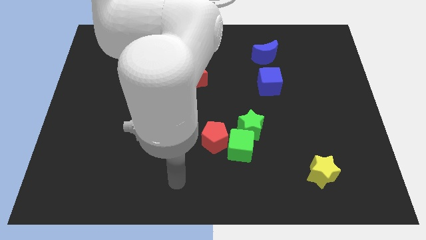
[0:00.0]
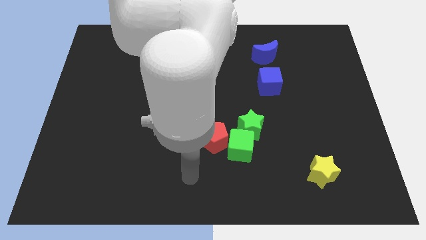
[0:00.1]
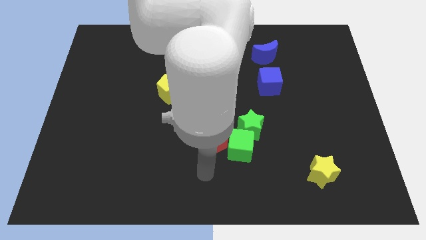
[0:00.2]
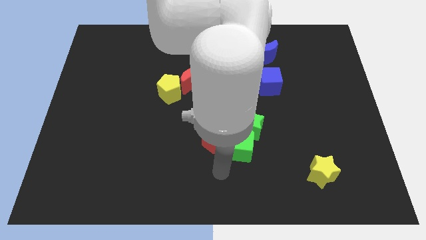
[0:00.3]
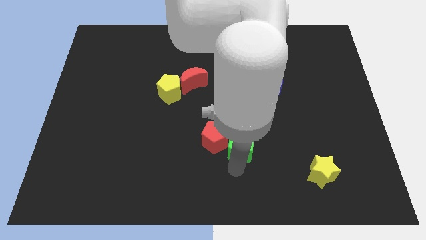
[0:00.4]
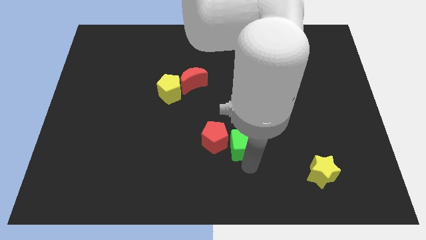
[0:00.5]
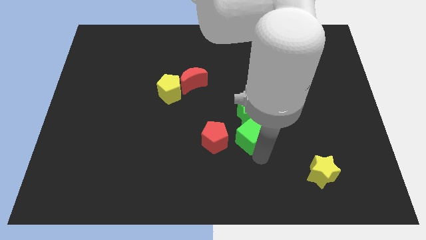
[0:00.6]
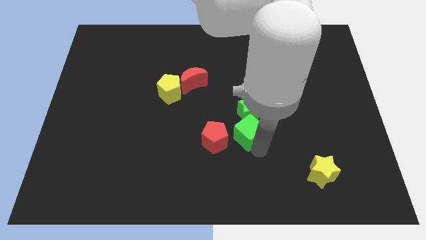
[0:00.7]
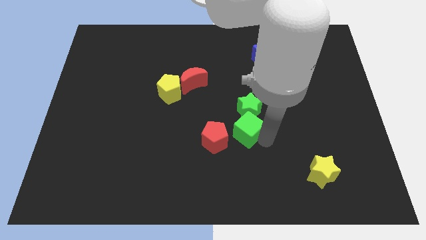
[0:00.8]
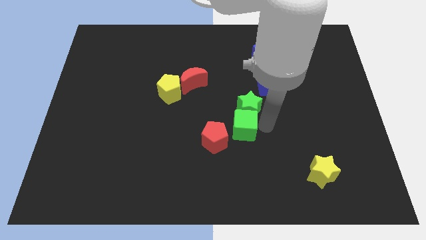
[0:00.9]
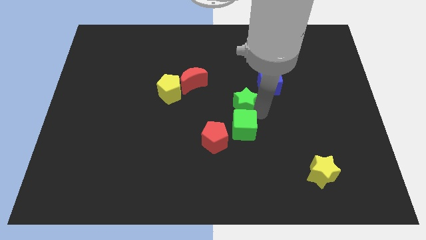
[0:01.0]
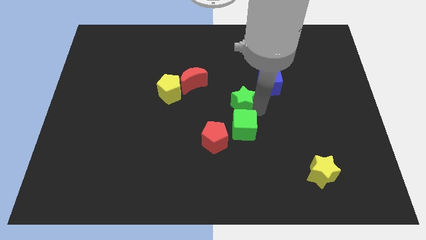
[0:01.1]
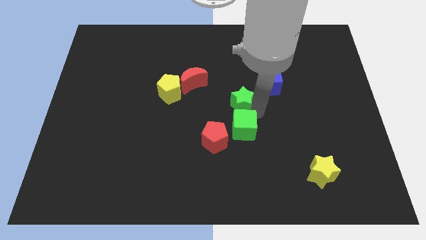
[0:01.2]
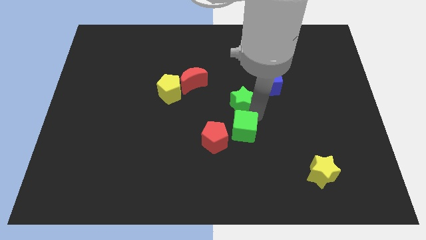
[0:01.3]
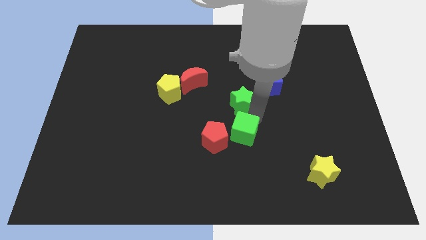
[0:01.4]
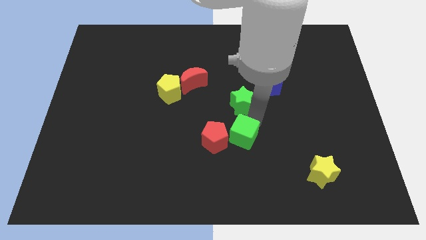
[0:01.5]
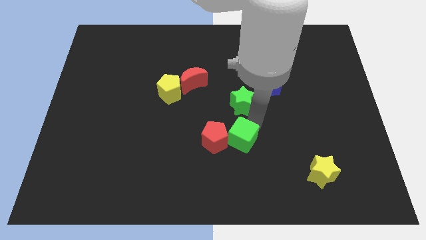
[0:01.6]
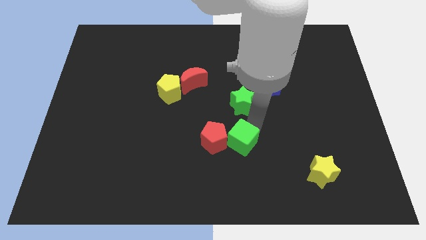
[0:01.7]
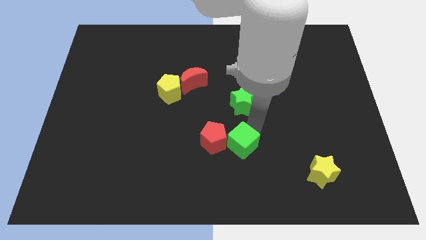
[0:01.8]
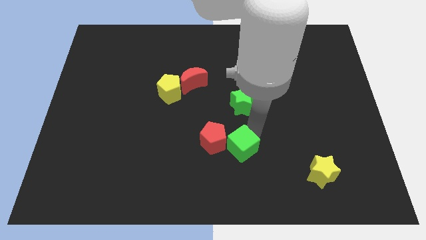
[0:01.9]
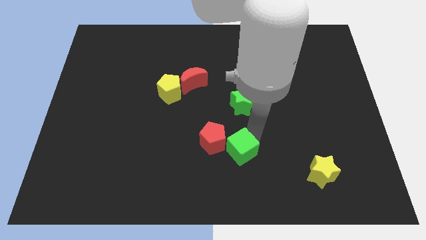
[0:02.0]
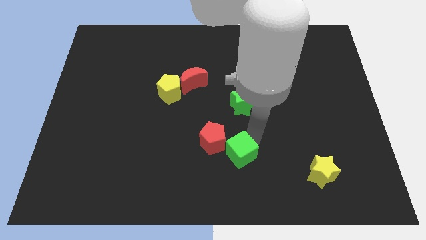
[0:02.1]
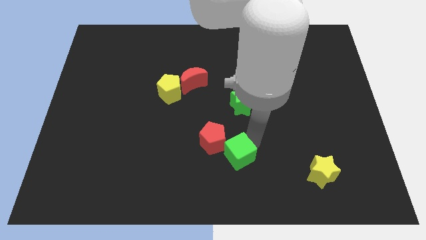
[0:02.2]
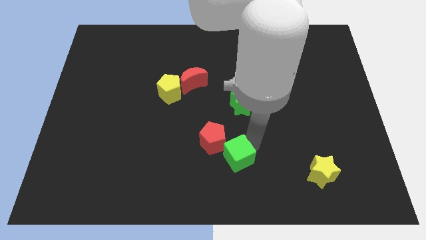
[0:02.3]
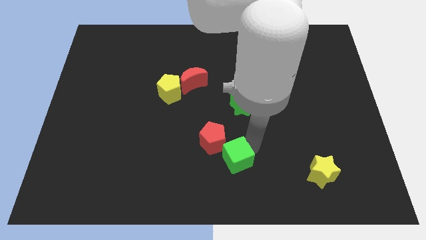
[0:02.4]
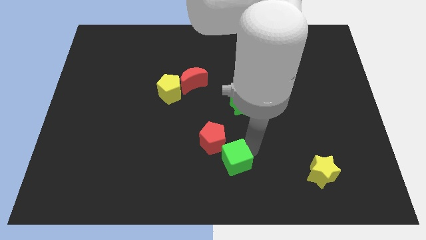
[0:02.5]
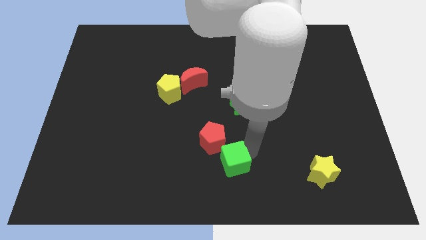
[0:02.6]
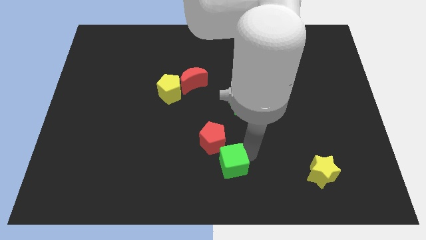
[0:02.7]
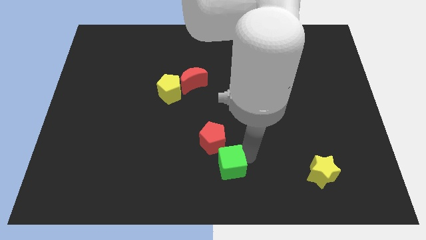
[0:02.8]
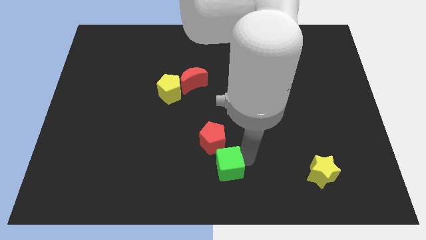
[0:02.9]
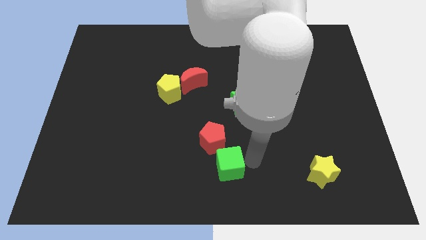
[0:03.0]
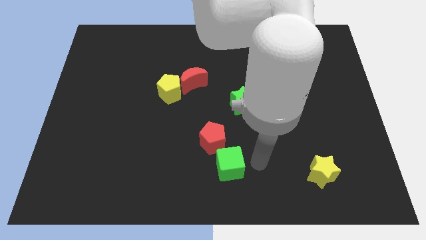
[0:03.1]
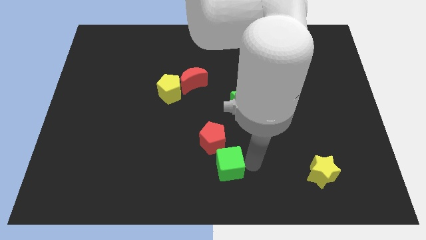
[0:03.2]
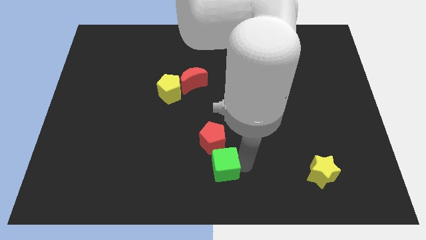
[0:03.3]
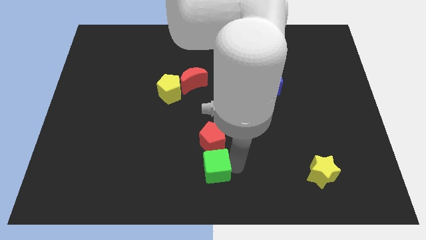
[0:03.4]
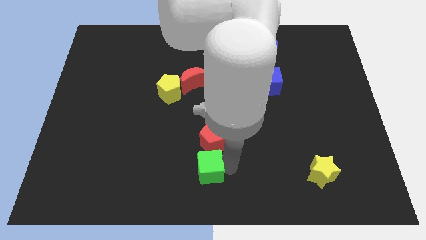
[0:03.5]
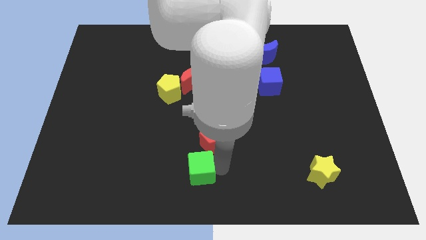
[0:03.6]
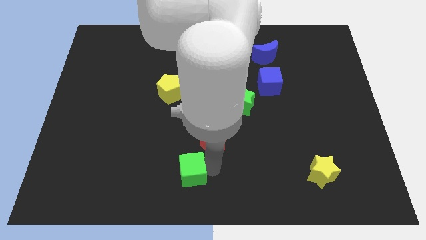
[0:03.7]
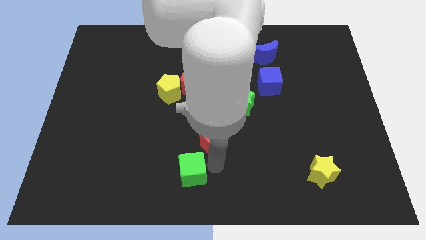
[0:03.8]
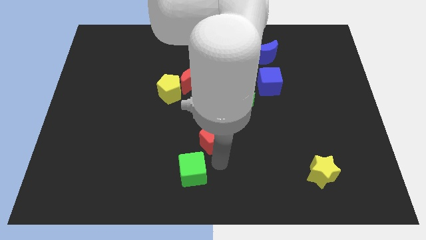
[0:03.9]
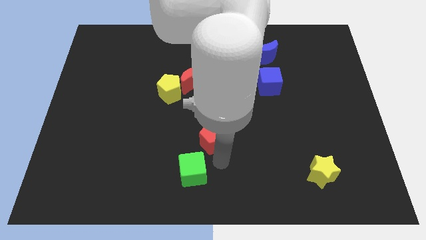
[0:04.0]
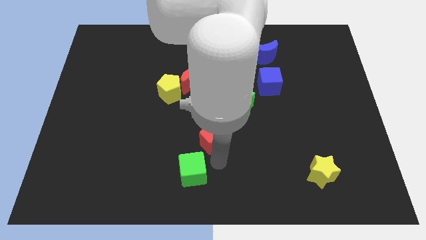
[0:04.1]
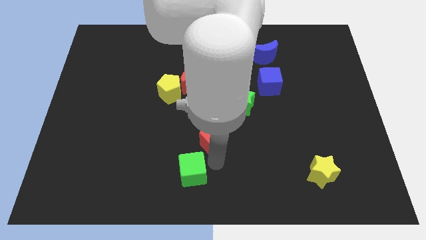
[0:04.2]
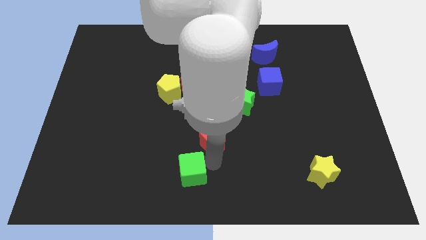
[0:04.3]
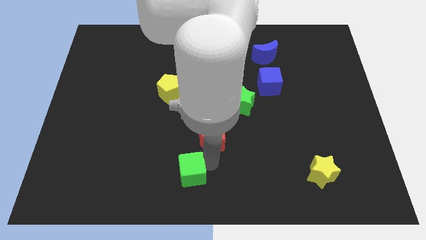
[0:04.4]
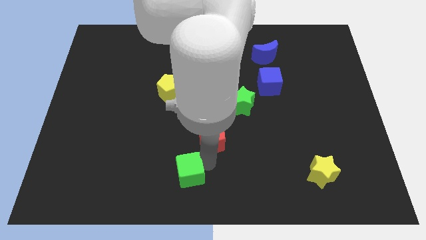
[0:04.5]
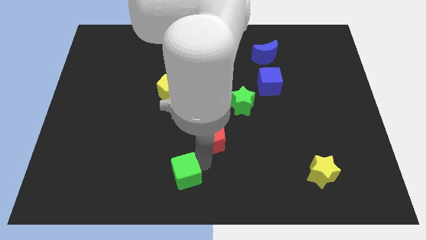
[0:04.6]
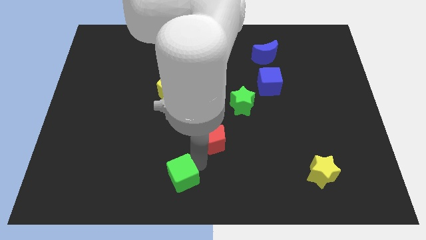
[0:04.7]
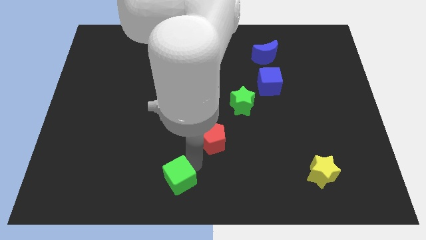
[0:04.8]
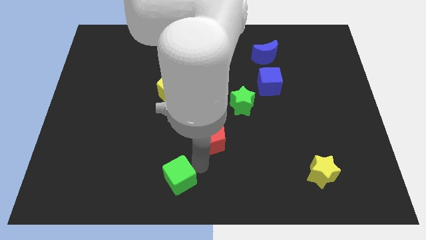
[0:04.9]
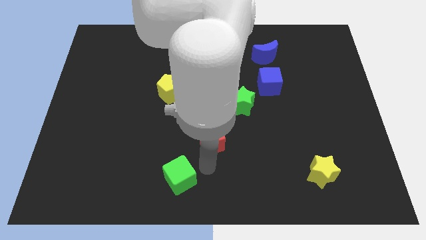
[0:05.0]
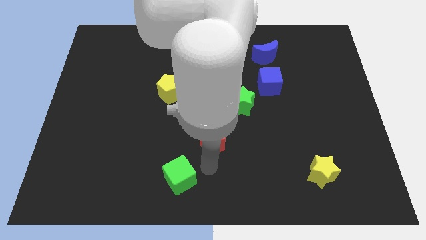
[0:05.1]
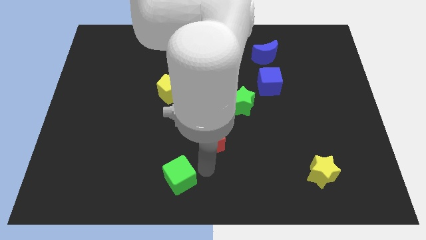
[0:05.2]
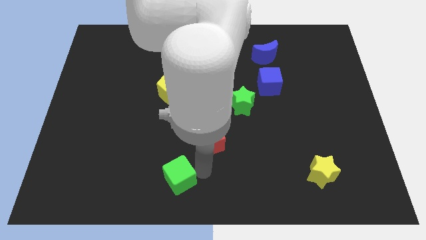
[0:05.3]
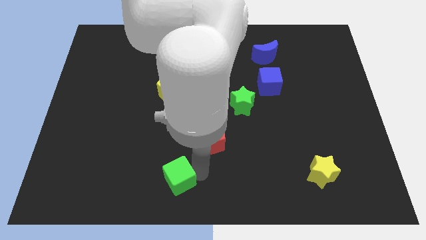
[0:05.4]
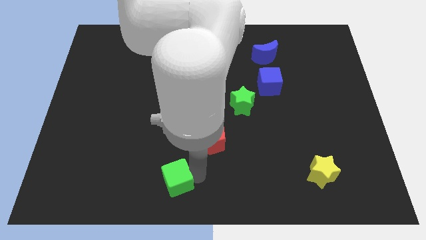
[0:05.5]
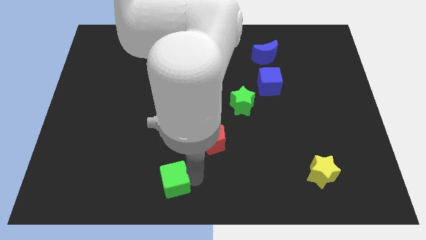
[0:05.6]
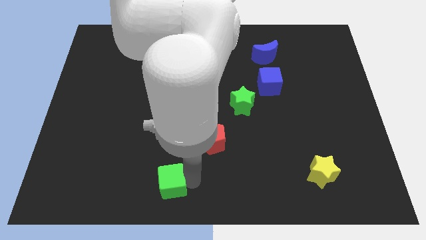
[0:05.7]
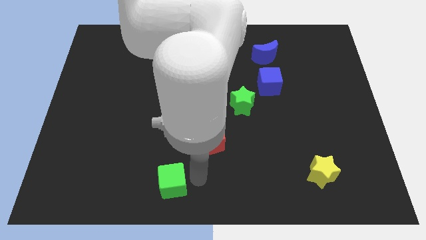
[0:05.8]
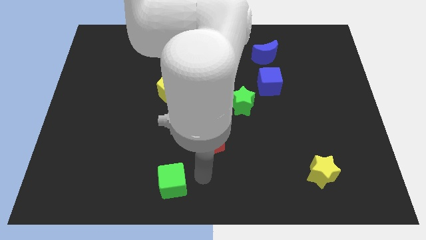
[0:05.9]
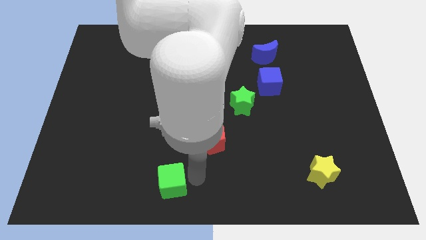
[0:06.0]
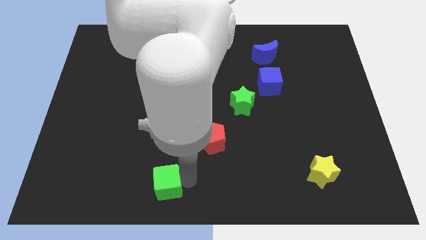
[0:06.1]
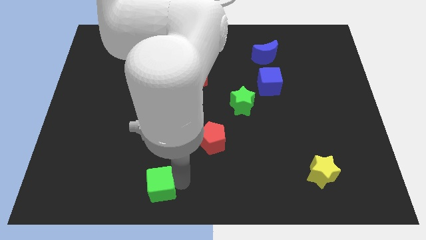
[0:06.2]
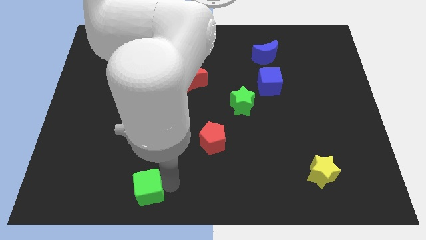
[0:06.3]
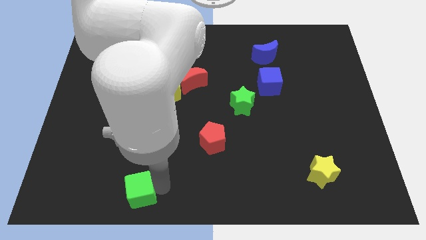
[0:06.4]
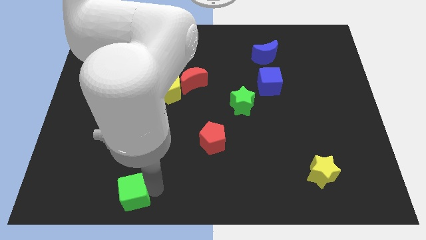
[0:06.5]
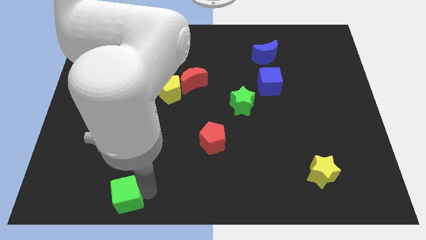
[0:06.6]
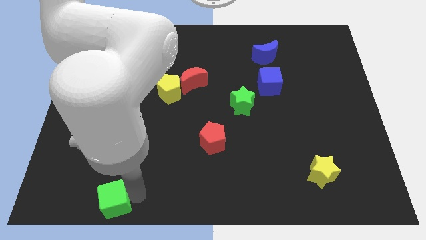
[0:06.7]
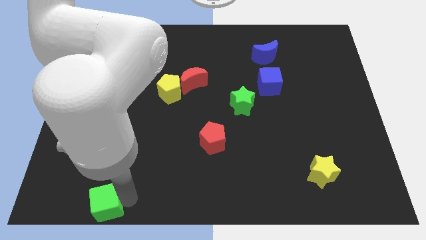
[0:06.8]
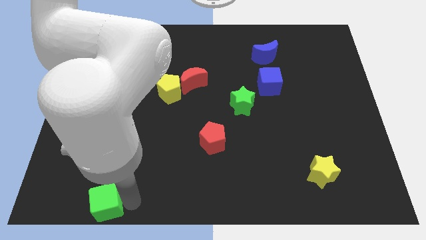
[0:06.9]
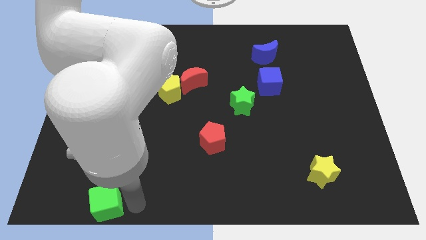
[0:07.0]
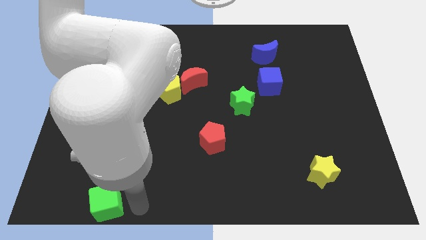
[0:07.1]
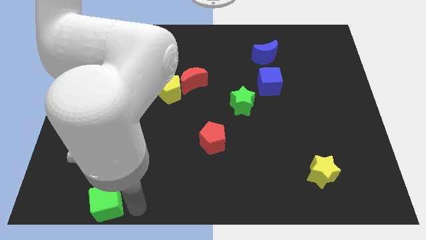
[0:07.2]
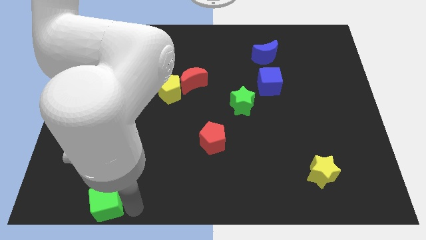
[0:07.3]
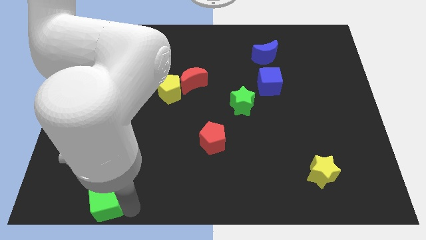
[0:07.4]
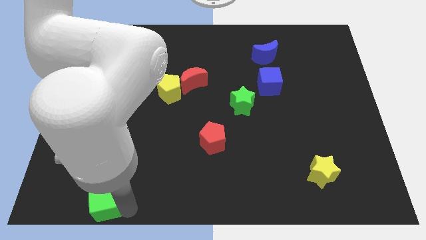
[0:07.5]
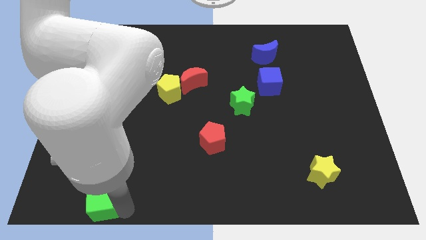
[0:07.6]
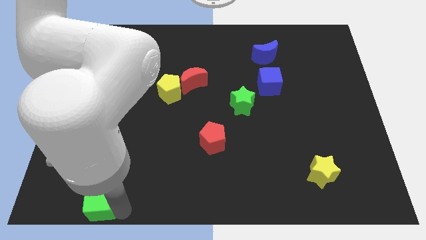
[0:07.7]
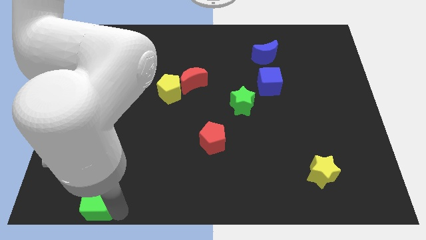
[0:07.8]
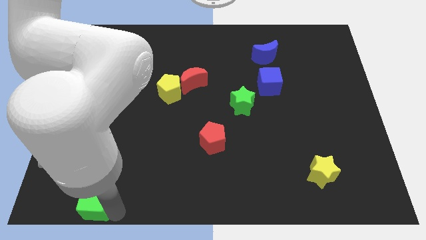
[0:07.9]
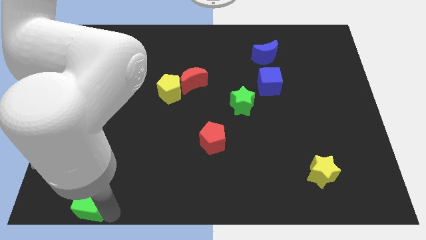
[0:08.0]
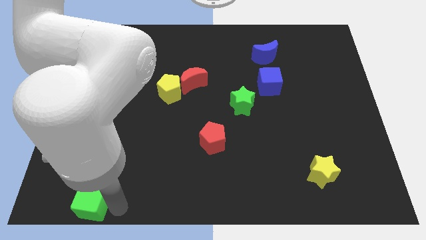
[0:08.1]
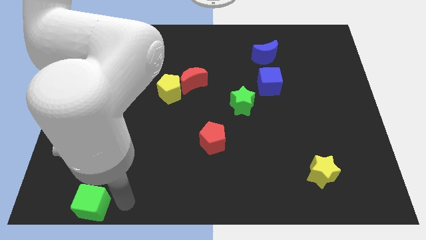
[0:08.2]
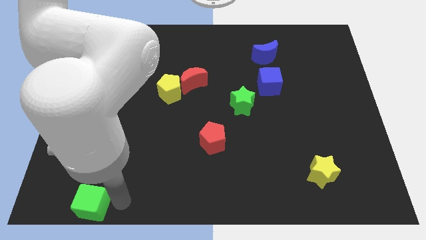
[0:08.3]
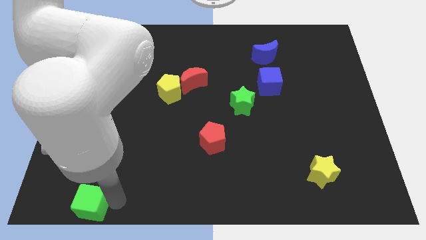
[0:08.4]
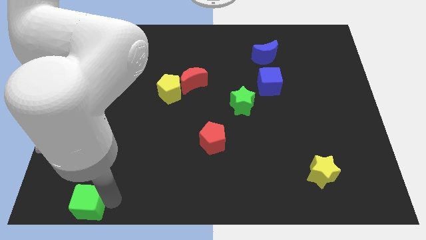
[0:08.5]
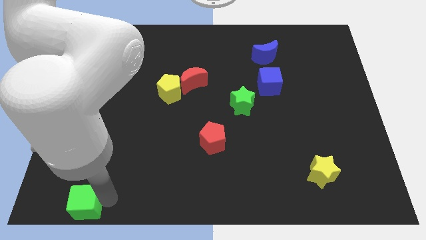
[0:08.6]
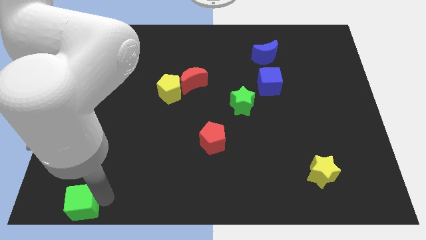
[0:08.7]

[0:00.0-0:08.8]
move the green cube to the bottom left
